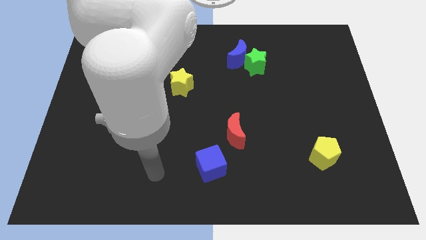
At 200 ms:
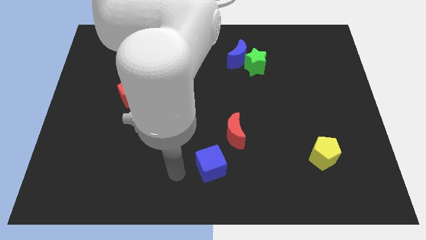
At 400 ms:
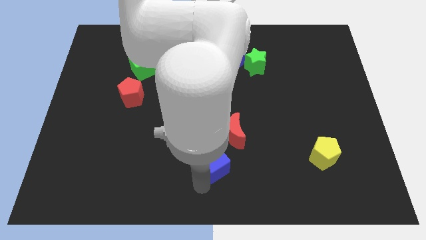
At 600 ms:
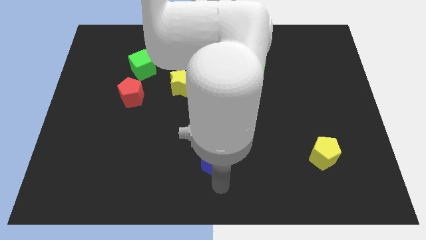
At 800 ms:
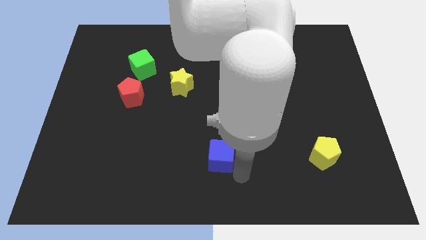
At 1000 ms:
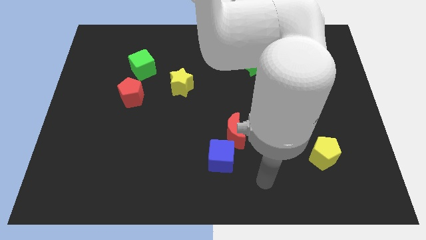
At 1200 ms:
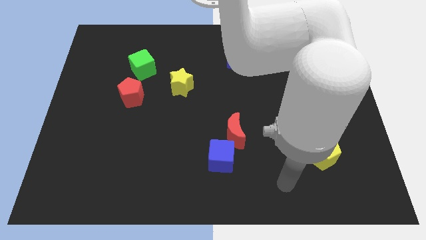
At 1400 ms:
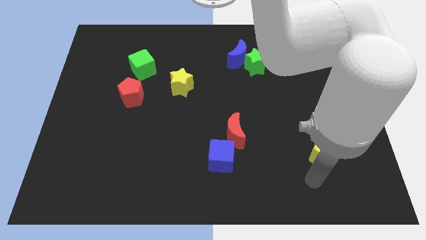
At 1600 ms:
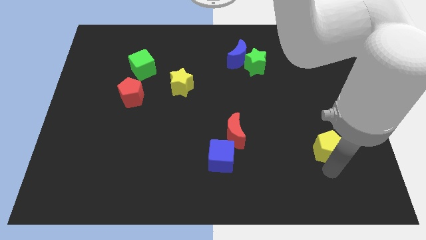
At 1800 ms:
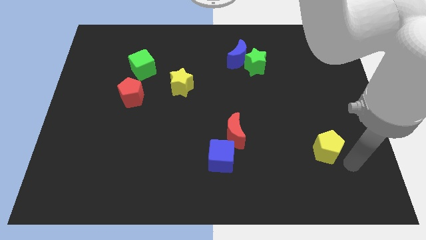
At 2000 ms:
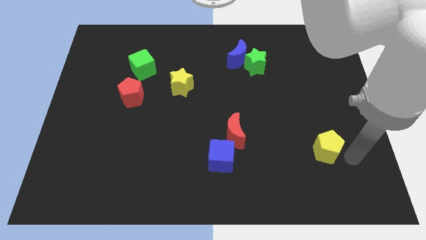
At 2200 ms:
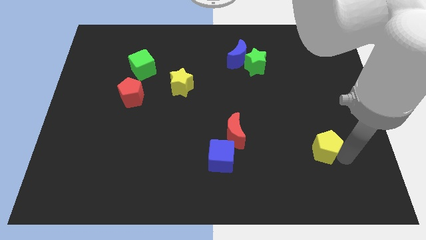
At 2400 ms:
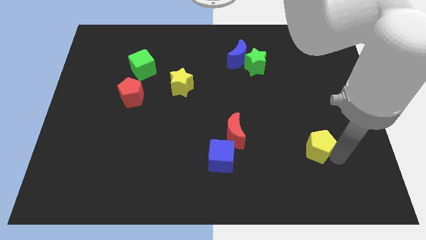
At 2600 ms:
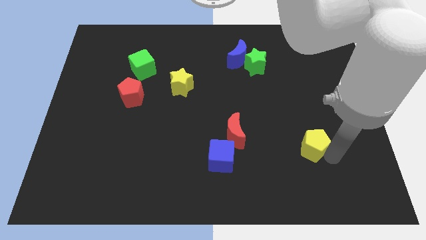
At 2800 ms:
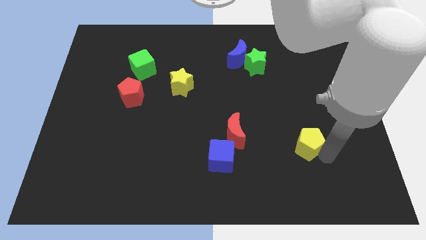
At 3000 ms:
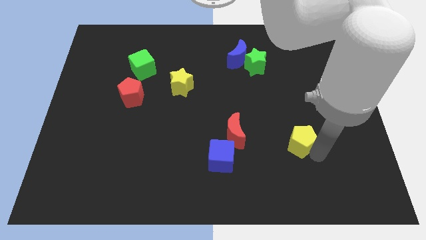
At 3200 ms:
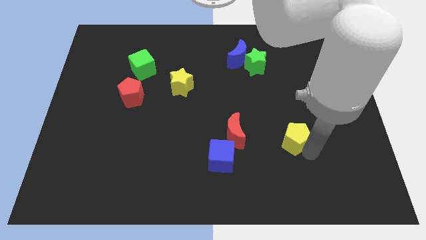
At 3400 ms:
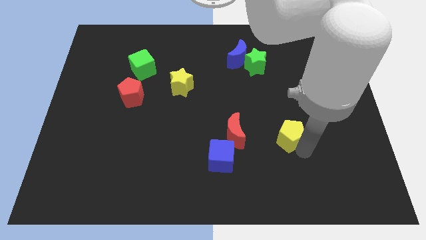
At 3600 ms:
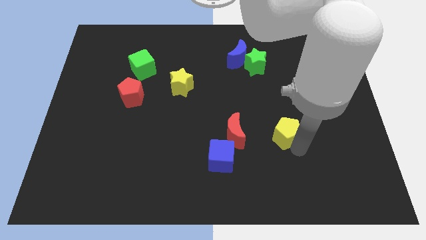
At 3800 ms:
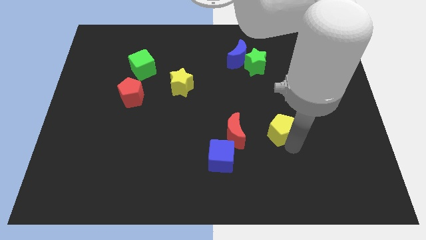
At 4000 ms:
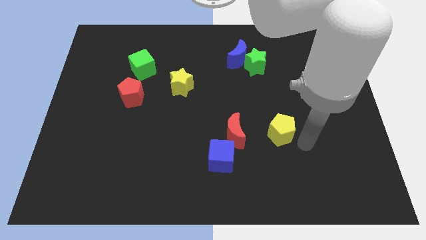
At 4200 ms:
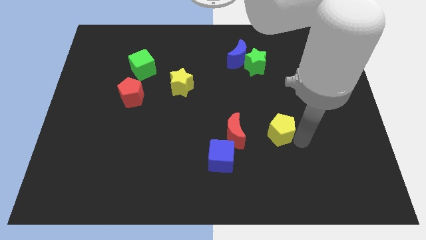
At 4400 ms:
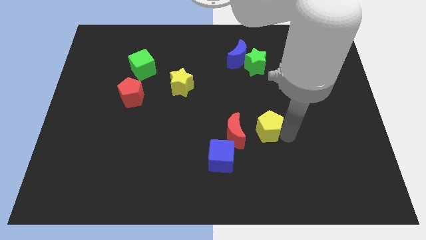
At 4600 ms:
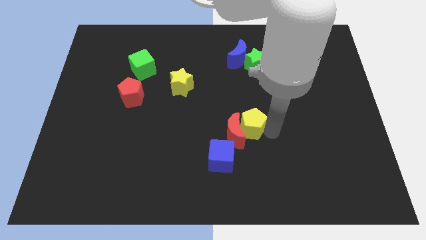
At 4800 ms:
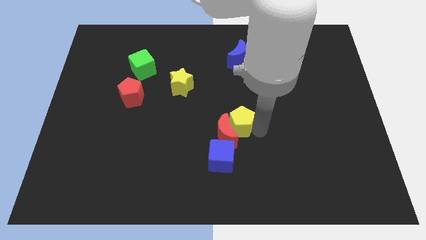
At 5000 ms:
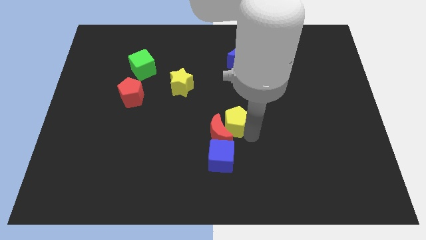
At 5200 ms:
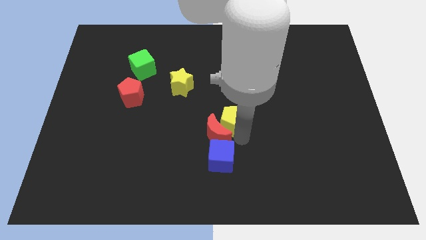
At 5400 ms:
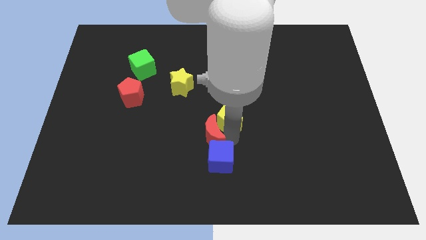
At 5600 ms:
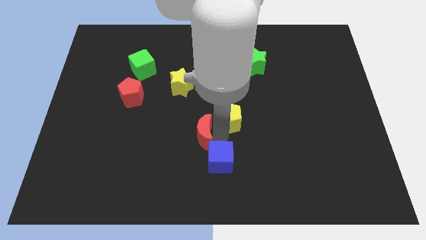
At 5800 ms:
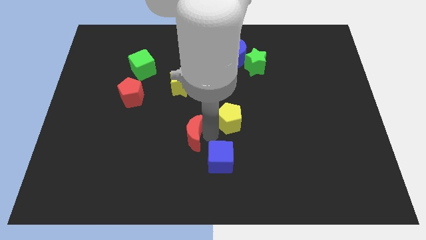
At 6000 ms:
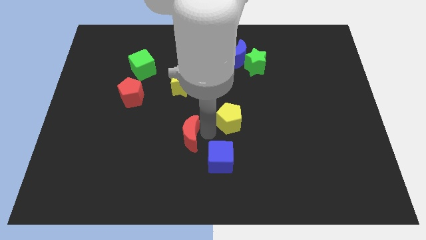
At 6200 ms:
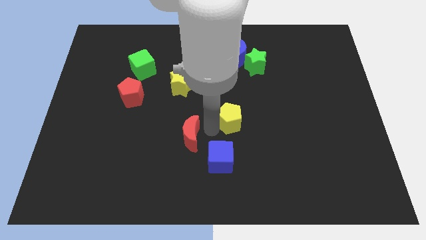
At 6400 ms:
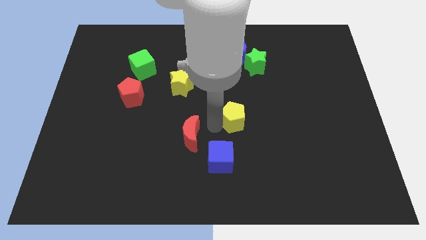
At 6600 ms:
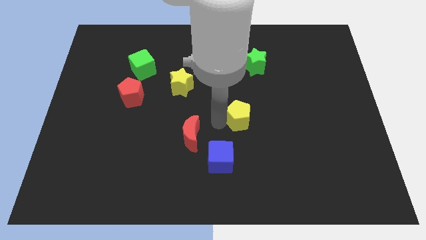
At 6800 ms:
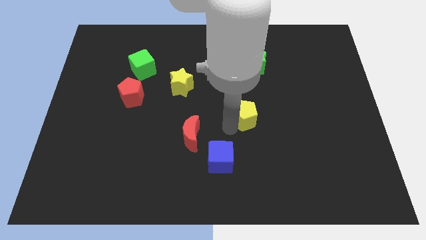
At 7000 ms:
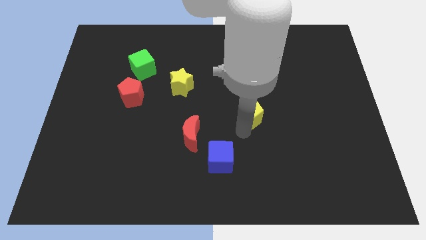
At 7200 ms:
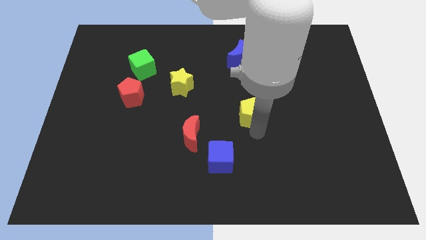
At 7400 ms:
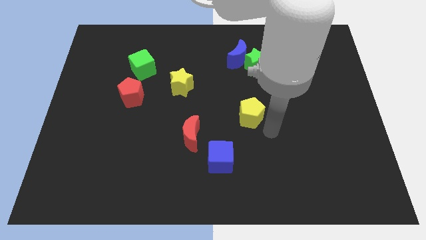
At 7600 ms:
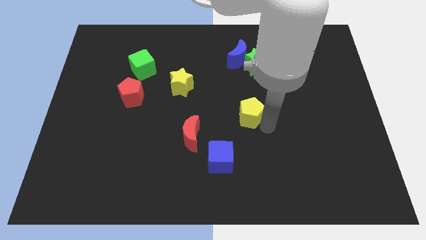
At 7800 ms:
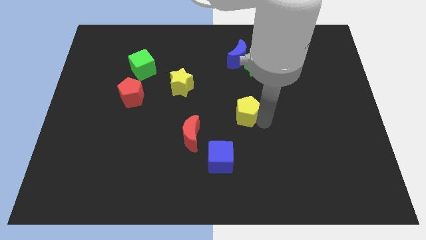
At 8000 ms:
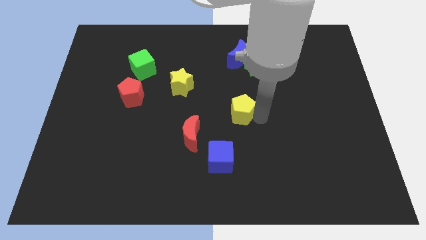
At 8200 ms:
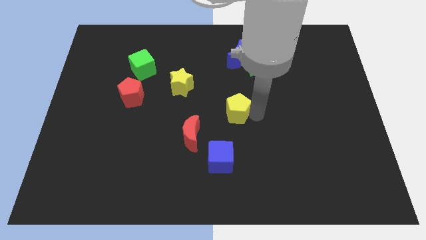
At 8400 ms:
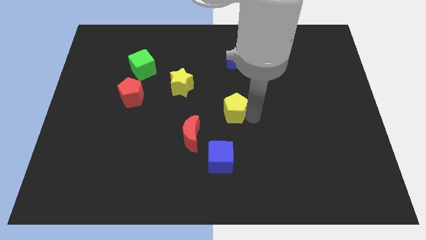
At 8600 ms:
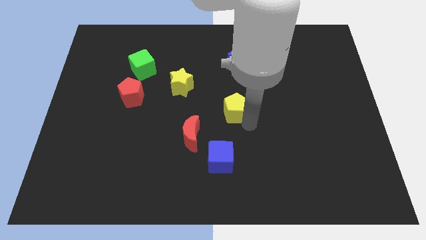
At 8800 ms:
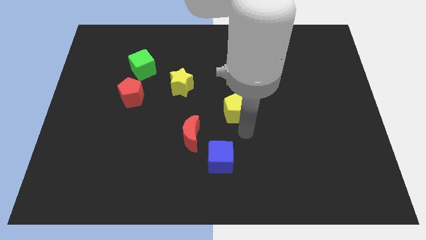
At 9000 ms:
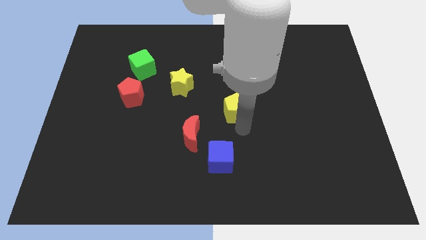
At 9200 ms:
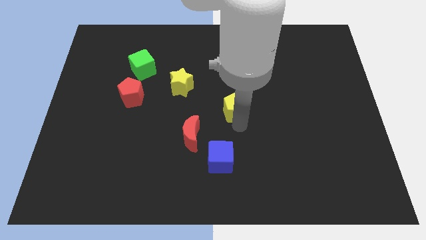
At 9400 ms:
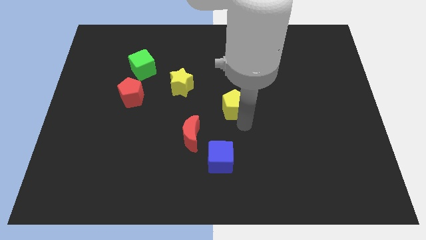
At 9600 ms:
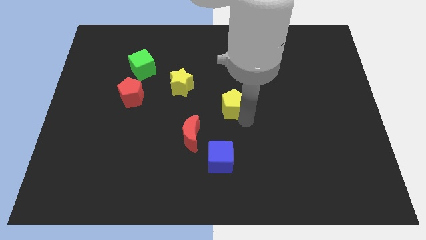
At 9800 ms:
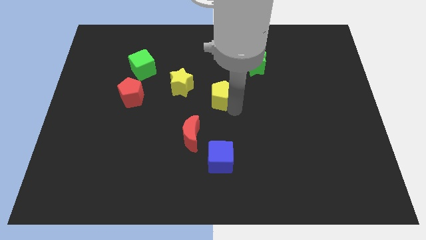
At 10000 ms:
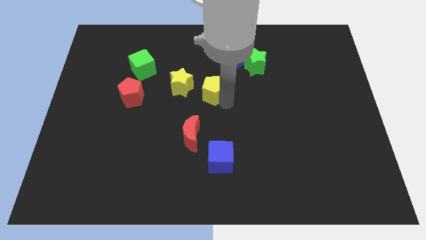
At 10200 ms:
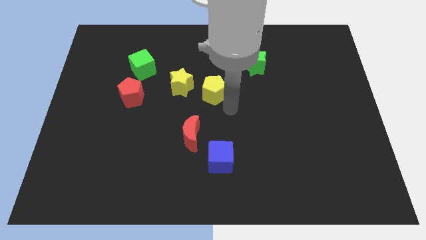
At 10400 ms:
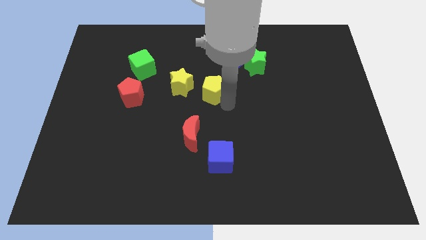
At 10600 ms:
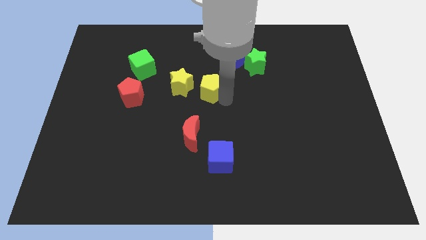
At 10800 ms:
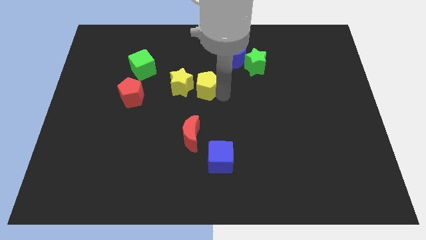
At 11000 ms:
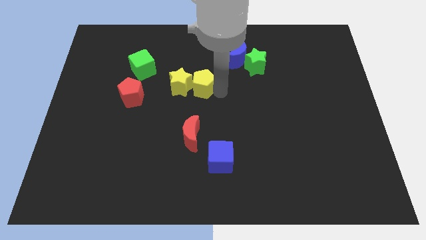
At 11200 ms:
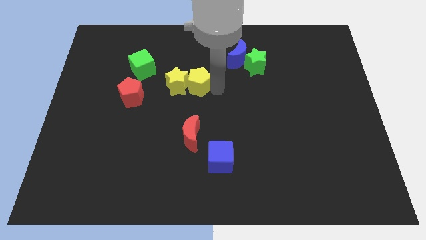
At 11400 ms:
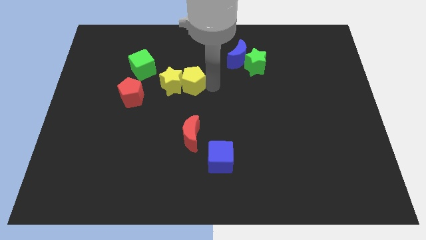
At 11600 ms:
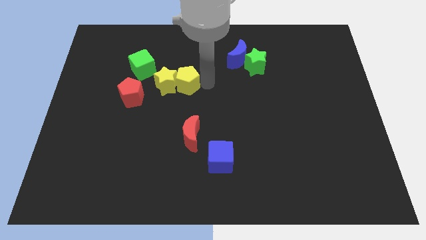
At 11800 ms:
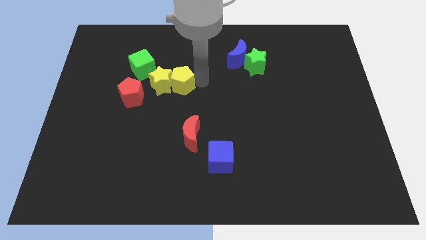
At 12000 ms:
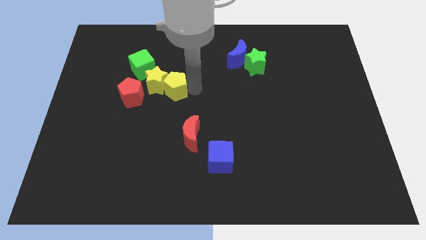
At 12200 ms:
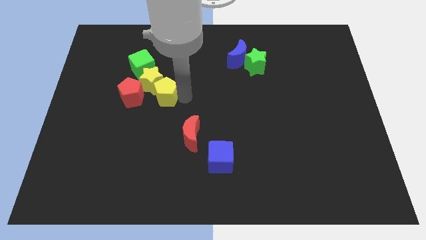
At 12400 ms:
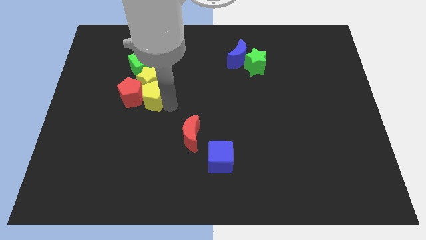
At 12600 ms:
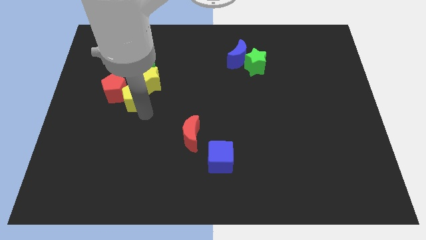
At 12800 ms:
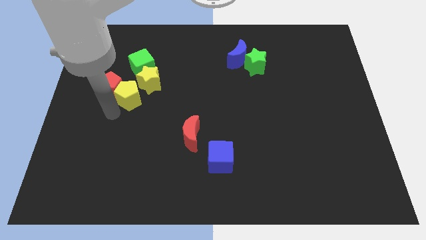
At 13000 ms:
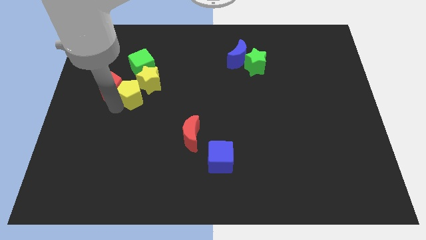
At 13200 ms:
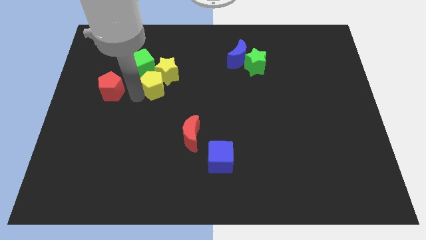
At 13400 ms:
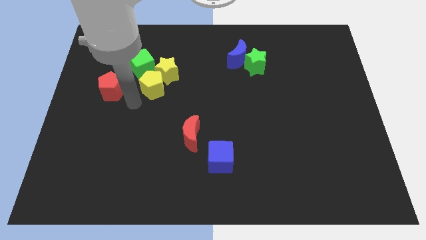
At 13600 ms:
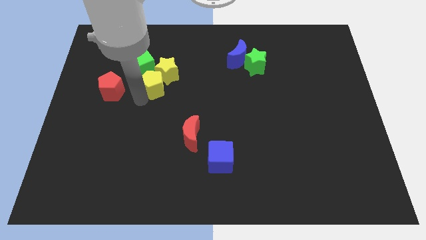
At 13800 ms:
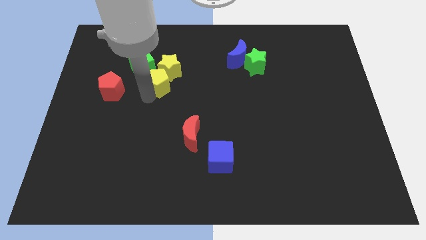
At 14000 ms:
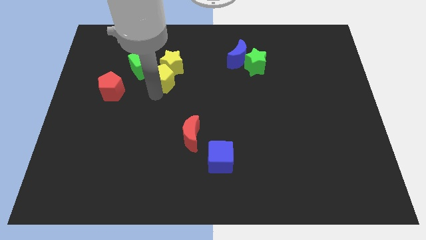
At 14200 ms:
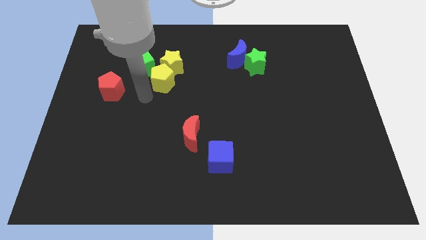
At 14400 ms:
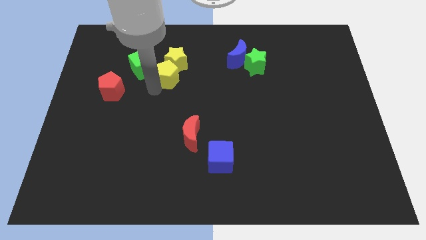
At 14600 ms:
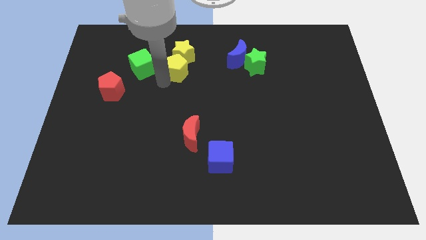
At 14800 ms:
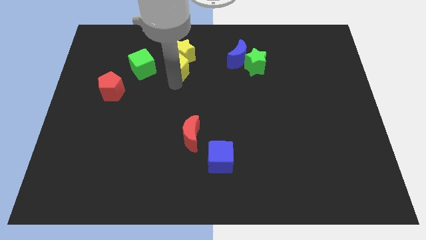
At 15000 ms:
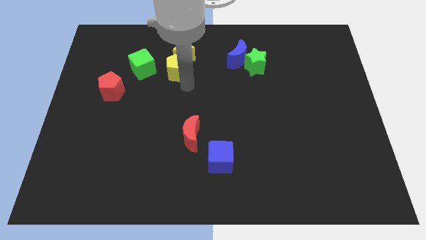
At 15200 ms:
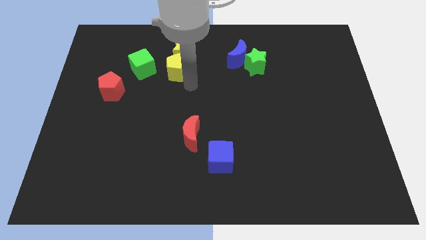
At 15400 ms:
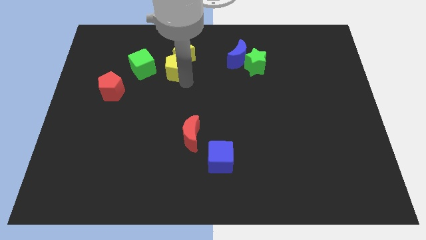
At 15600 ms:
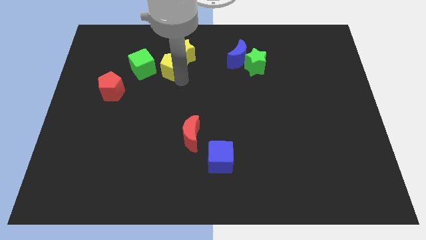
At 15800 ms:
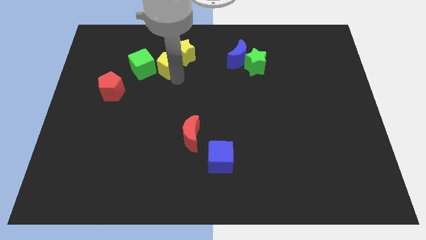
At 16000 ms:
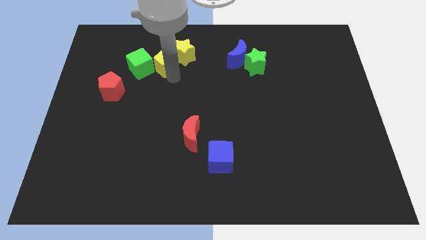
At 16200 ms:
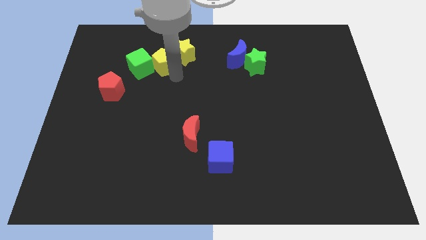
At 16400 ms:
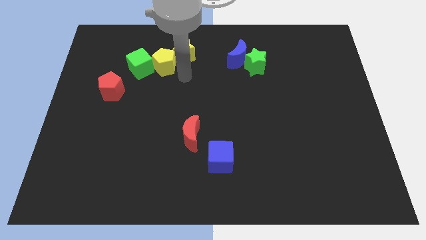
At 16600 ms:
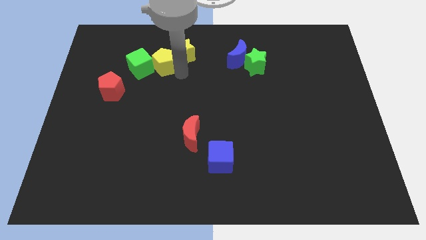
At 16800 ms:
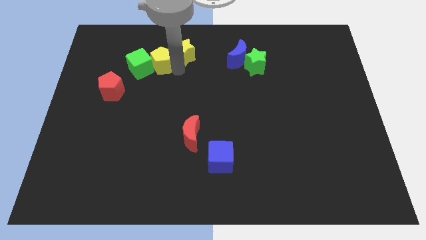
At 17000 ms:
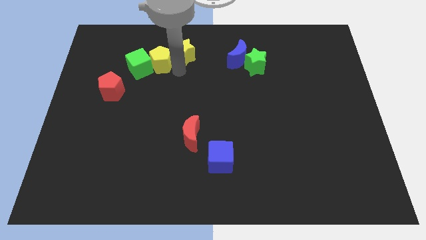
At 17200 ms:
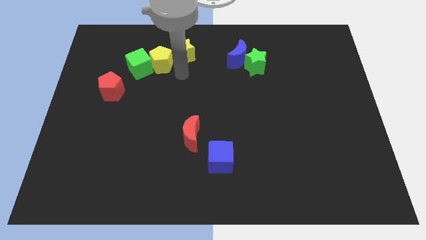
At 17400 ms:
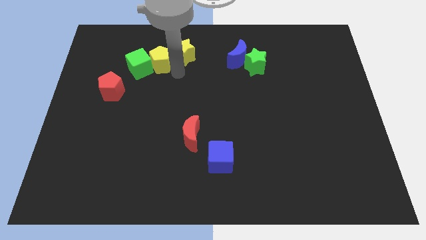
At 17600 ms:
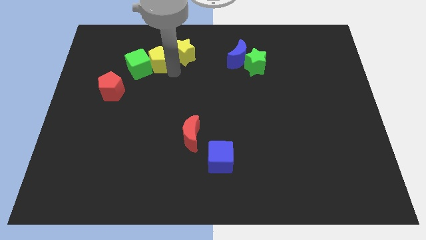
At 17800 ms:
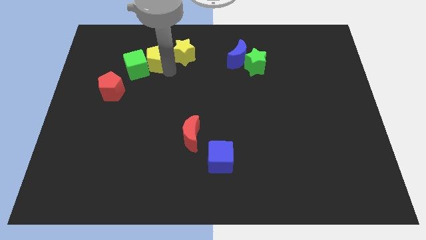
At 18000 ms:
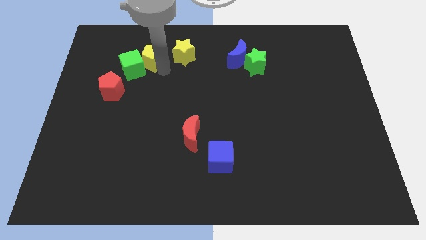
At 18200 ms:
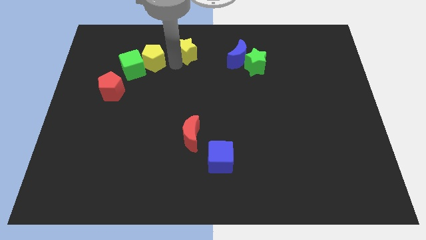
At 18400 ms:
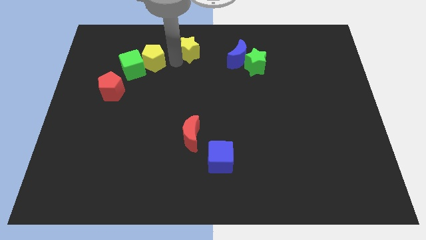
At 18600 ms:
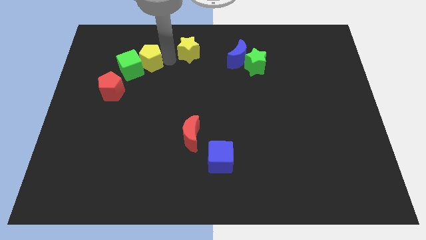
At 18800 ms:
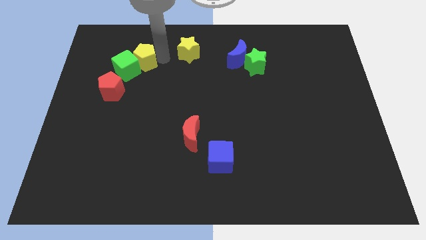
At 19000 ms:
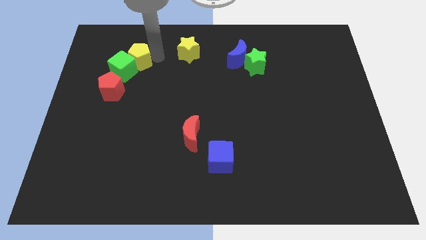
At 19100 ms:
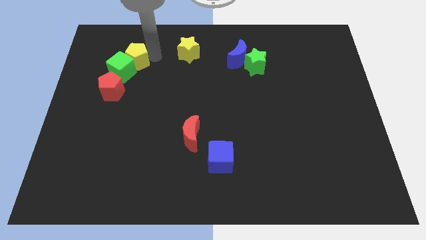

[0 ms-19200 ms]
push the yellow pentagon to the top side of the red pentagon
